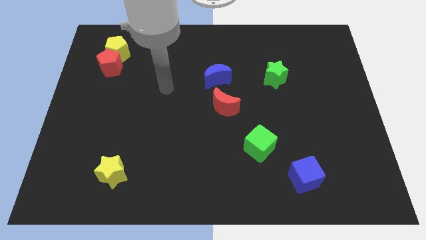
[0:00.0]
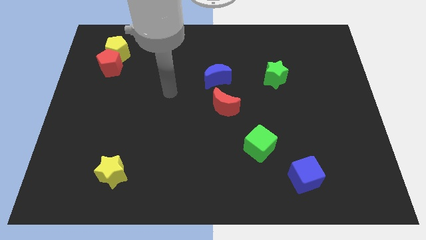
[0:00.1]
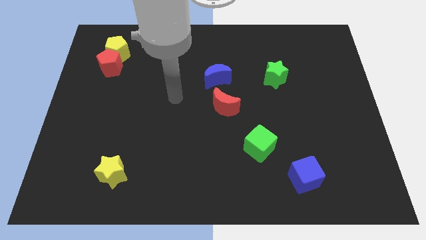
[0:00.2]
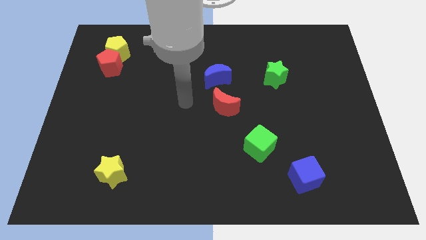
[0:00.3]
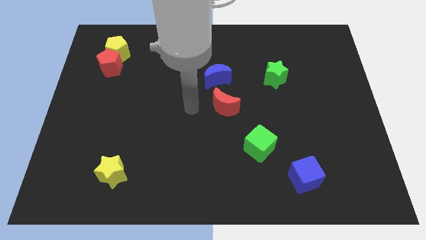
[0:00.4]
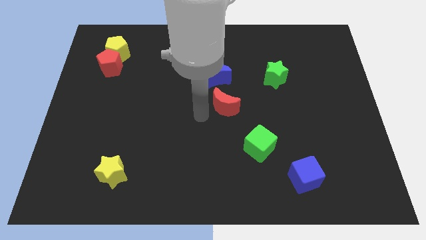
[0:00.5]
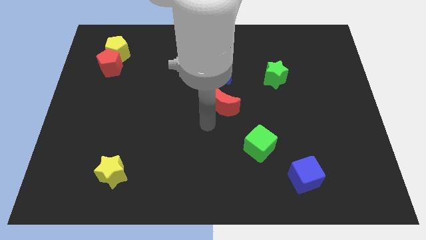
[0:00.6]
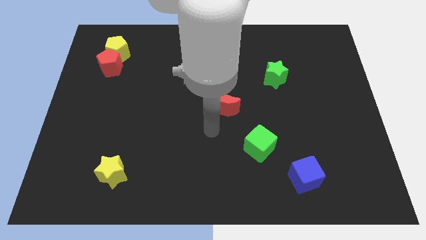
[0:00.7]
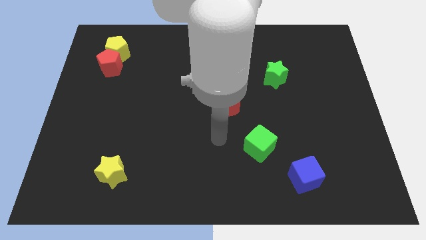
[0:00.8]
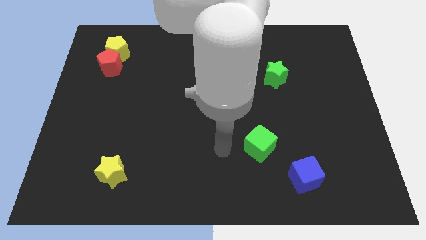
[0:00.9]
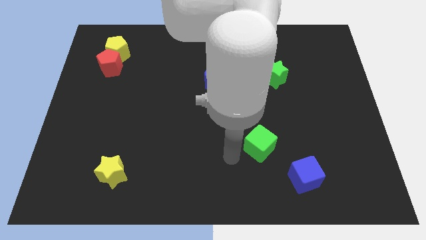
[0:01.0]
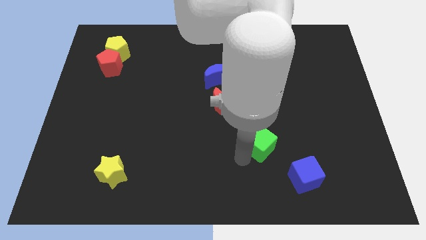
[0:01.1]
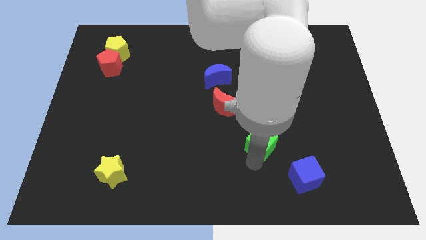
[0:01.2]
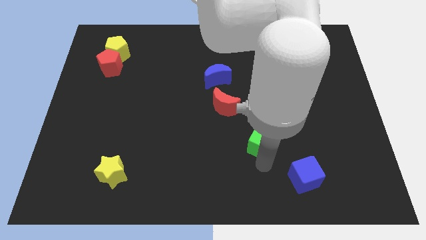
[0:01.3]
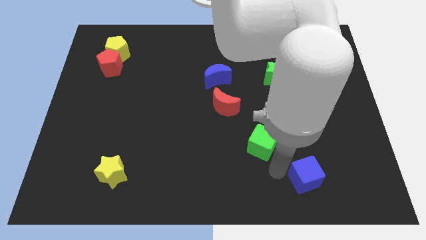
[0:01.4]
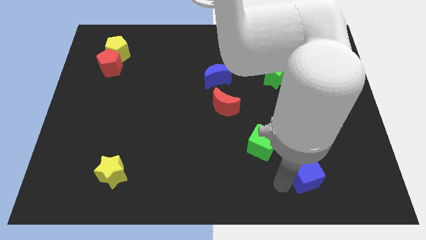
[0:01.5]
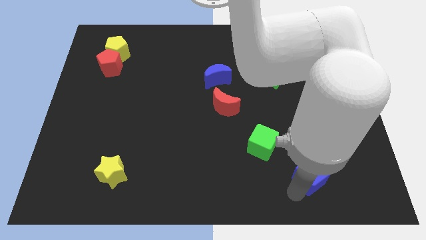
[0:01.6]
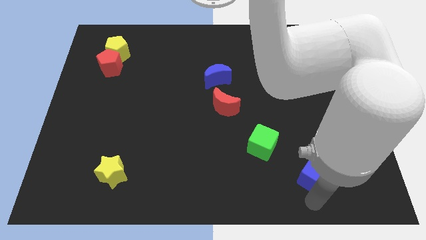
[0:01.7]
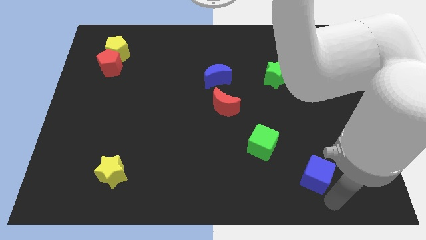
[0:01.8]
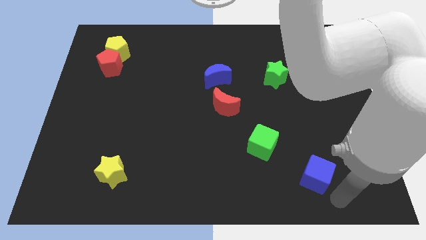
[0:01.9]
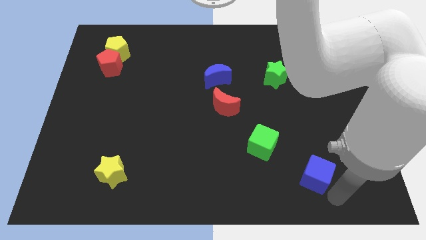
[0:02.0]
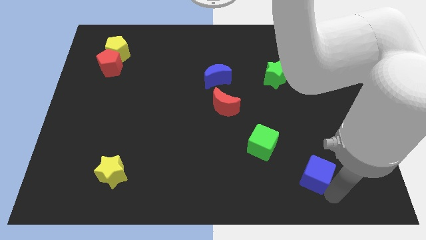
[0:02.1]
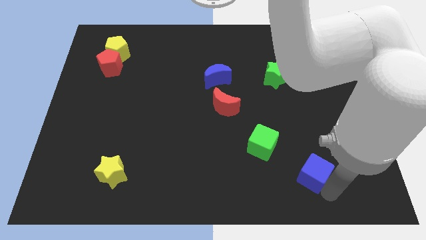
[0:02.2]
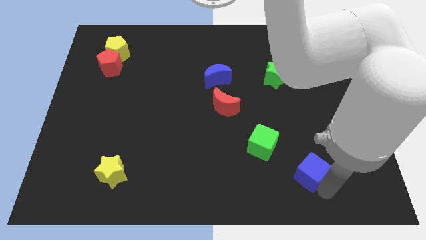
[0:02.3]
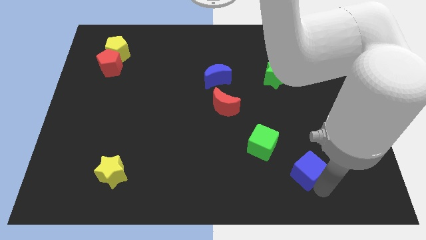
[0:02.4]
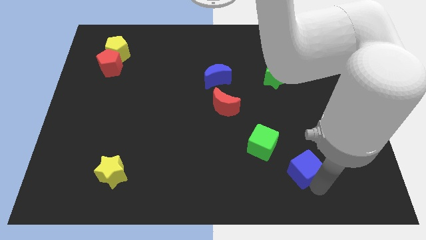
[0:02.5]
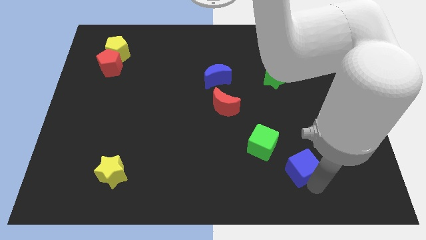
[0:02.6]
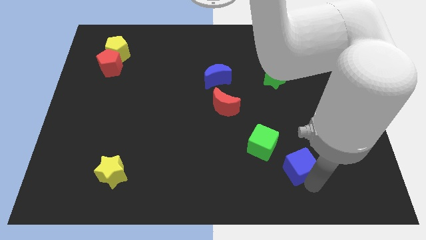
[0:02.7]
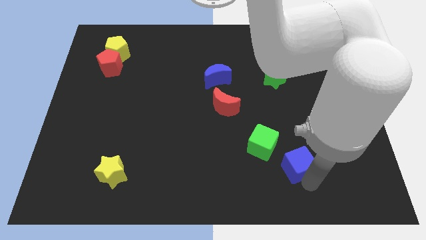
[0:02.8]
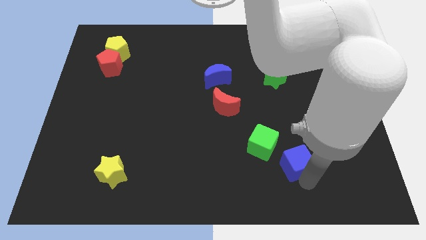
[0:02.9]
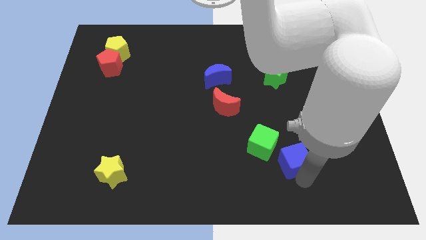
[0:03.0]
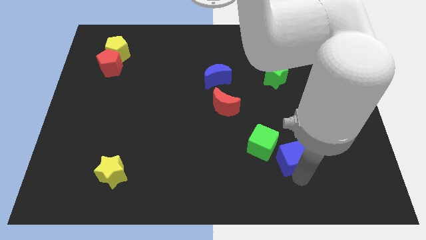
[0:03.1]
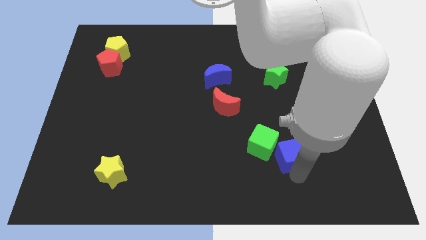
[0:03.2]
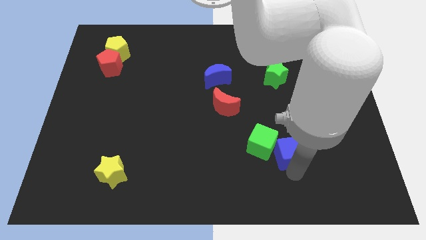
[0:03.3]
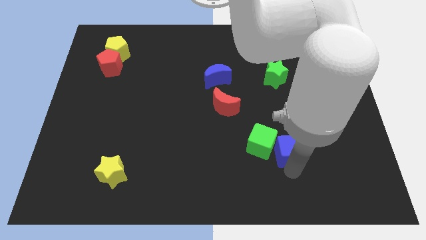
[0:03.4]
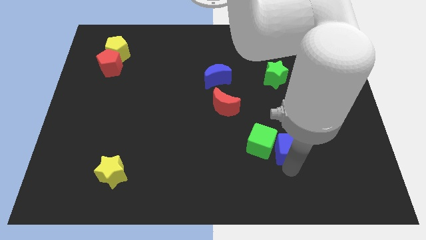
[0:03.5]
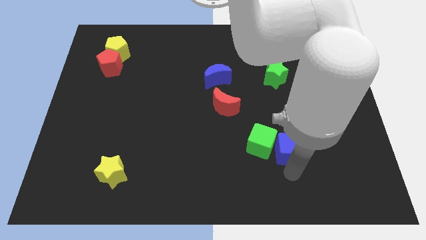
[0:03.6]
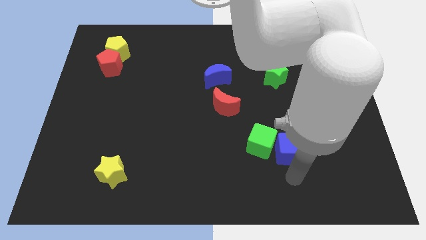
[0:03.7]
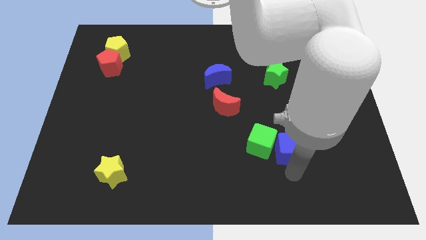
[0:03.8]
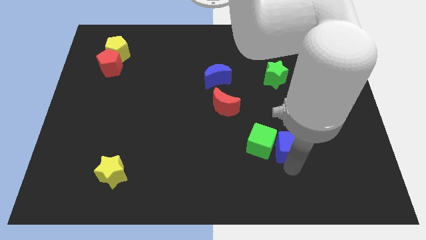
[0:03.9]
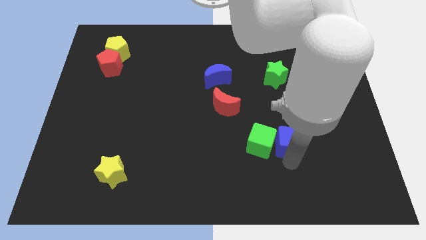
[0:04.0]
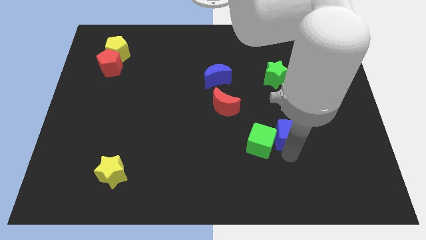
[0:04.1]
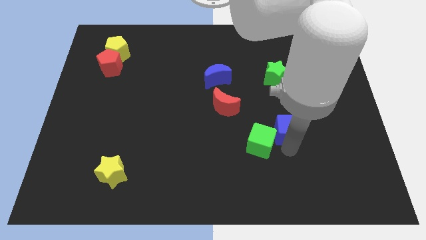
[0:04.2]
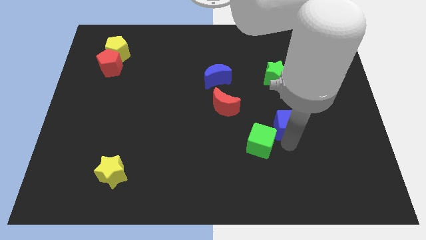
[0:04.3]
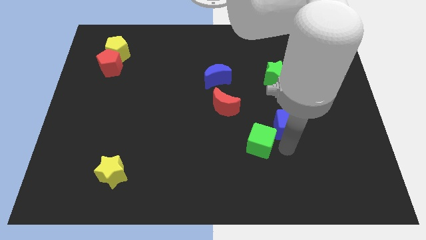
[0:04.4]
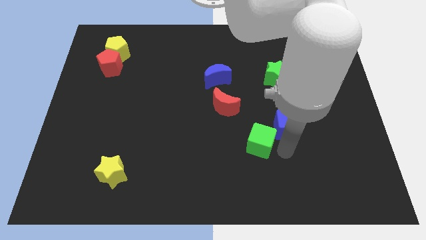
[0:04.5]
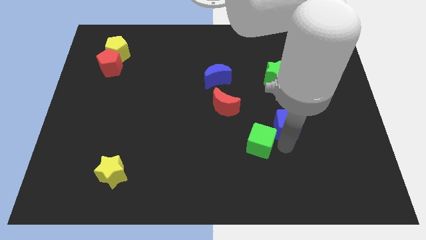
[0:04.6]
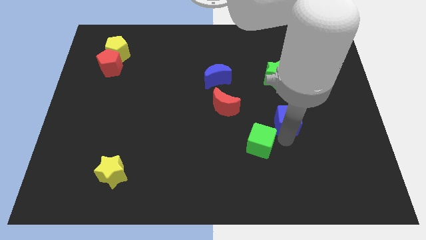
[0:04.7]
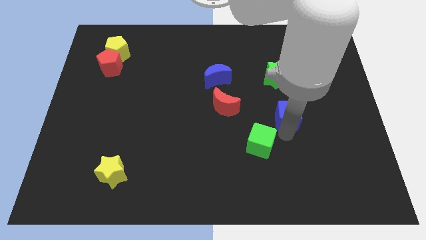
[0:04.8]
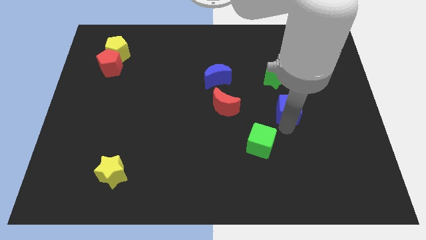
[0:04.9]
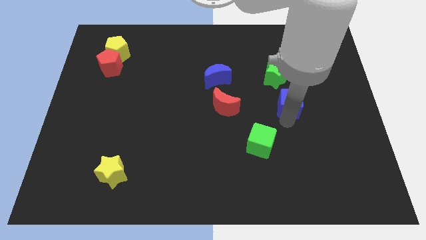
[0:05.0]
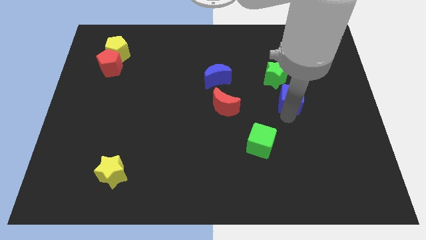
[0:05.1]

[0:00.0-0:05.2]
move the blue cube up

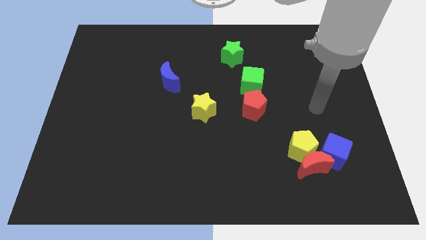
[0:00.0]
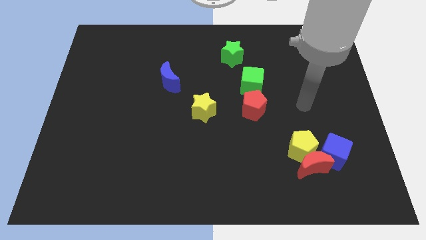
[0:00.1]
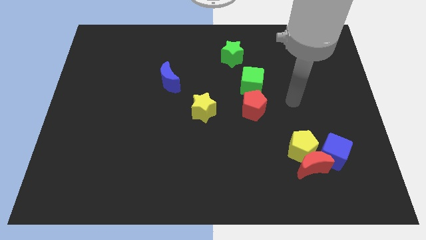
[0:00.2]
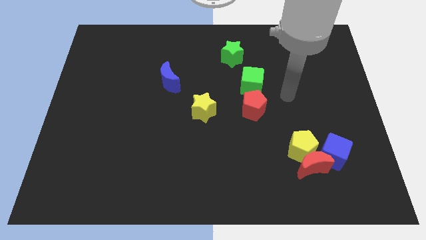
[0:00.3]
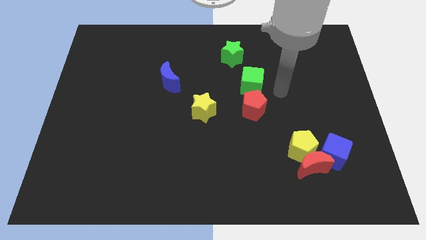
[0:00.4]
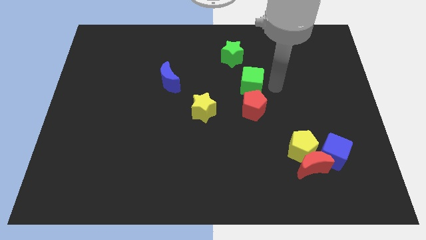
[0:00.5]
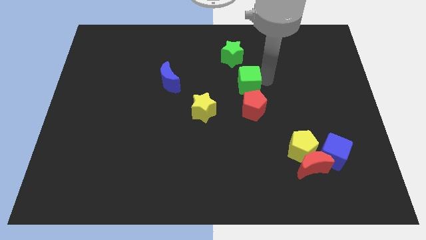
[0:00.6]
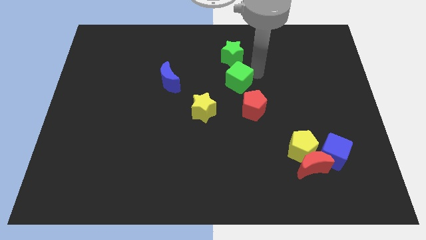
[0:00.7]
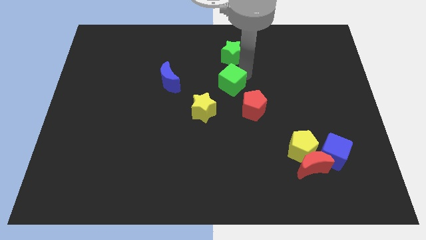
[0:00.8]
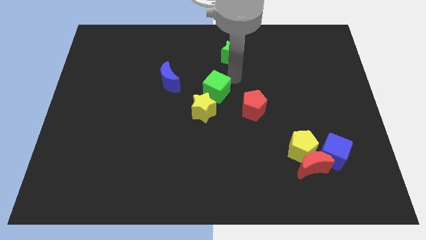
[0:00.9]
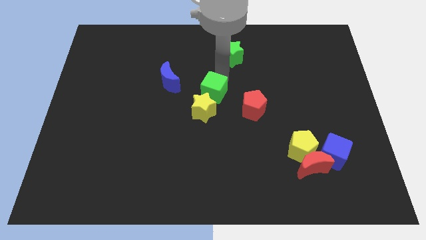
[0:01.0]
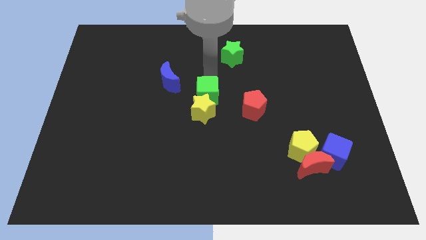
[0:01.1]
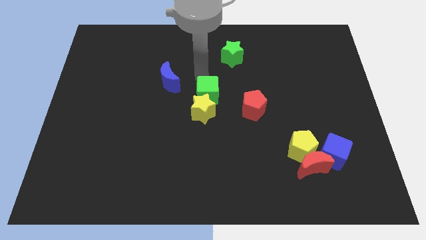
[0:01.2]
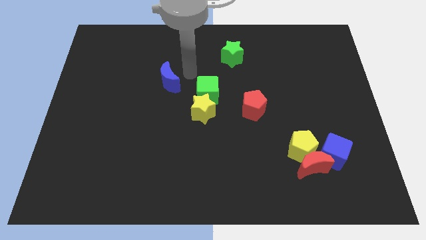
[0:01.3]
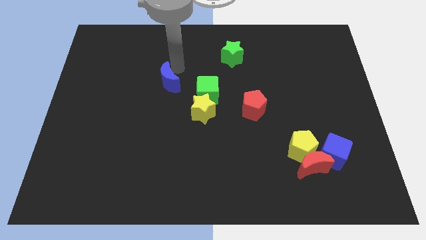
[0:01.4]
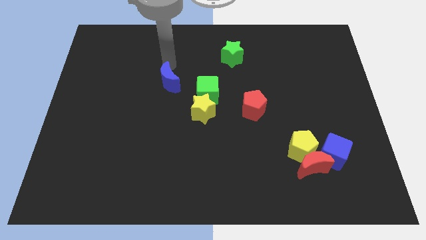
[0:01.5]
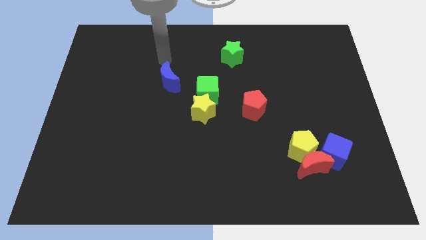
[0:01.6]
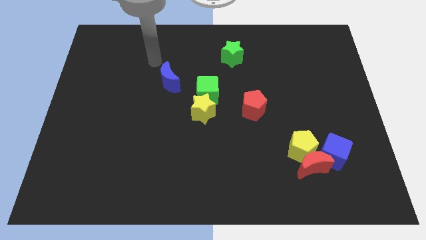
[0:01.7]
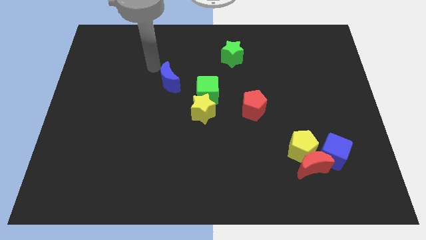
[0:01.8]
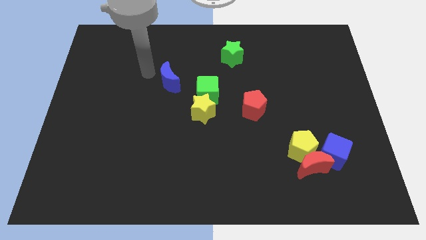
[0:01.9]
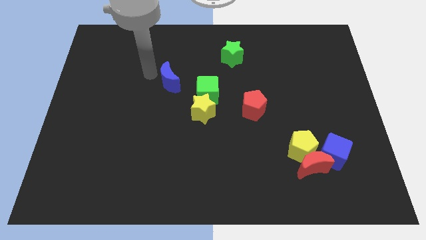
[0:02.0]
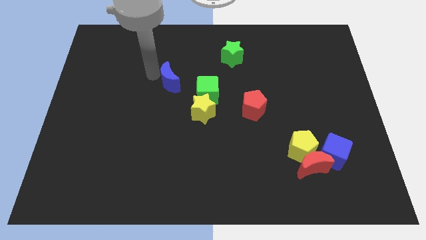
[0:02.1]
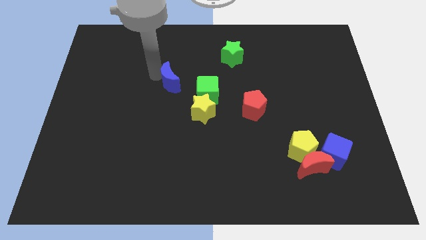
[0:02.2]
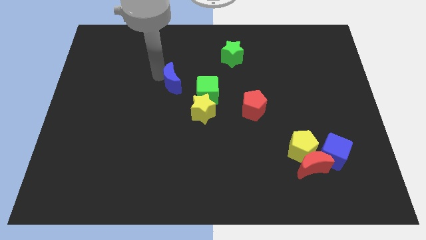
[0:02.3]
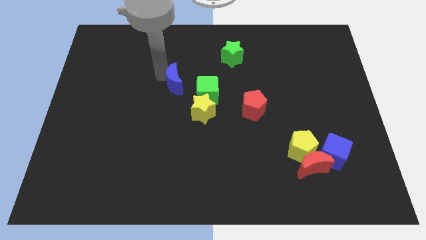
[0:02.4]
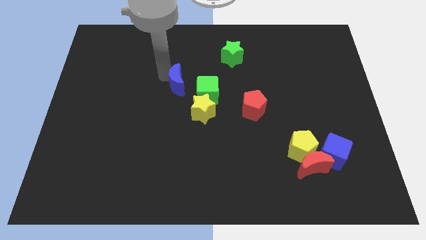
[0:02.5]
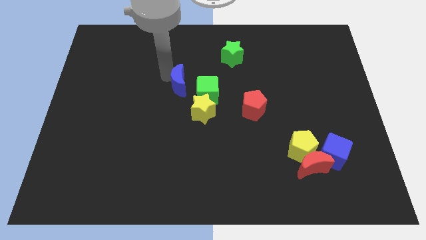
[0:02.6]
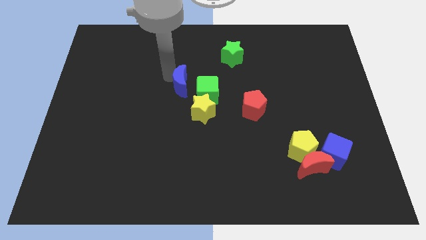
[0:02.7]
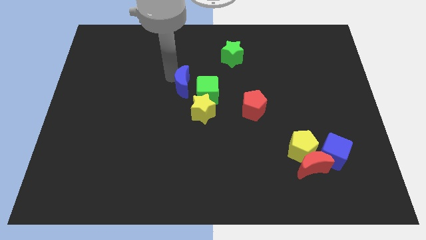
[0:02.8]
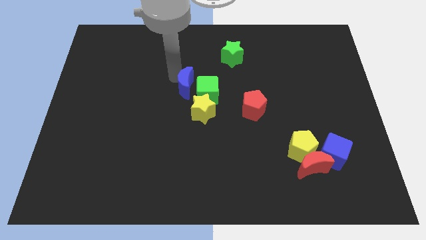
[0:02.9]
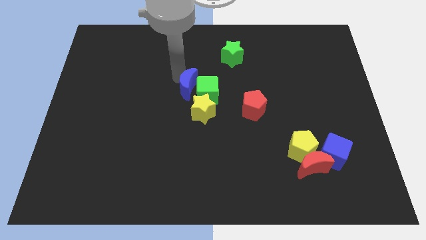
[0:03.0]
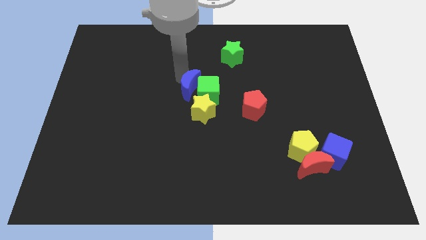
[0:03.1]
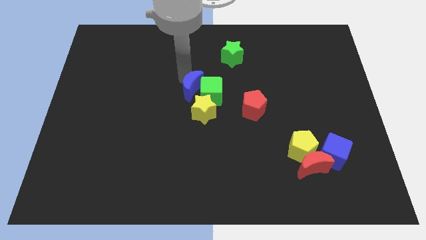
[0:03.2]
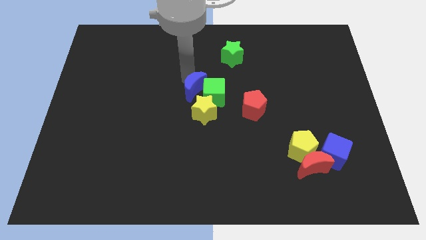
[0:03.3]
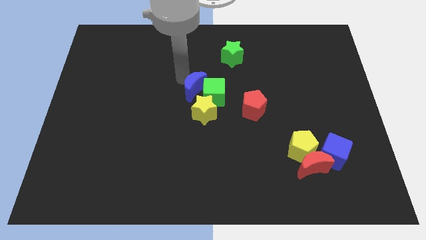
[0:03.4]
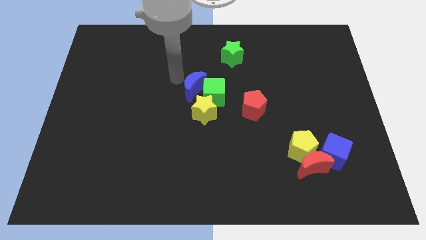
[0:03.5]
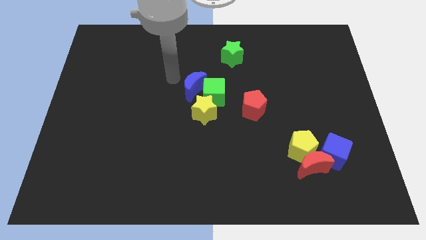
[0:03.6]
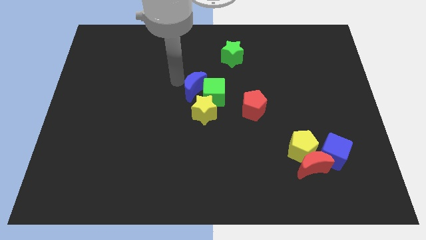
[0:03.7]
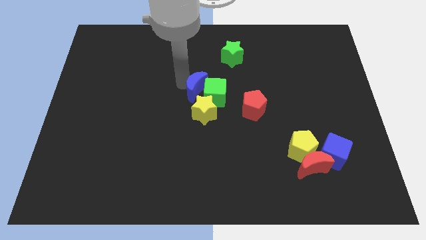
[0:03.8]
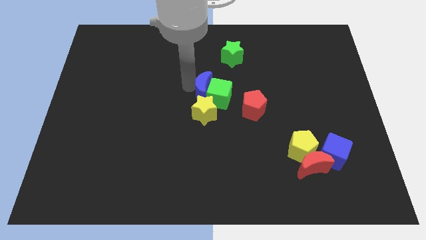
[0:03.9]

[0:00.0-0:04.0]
move the blue moon a little bit down and right
